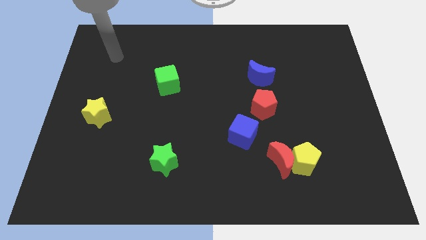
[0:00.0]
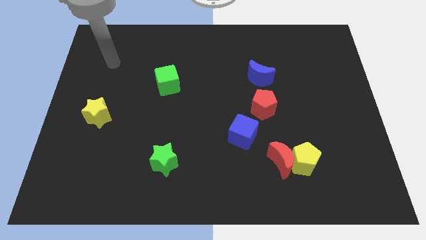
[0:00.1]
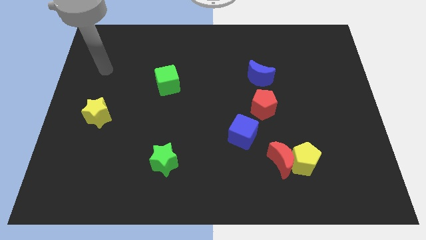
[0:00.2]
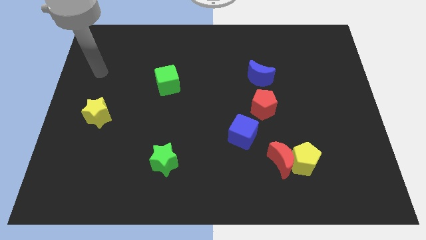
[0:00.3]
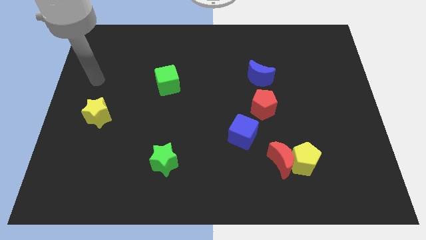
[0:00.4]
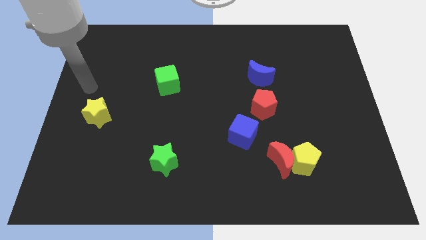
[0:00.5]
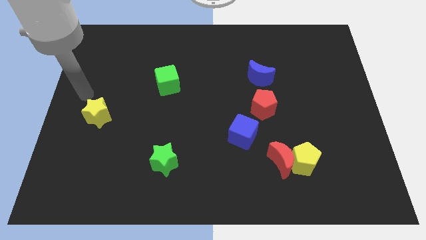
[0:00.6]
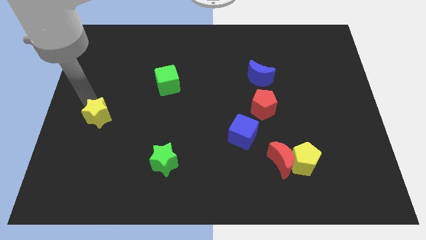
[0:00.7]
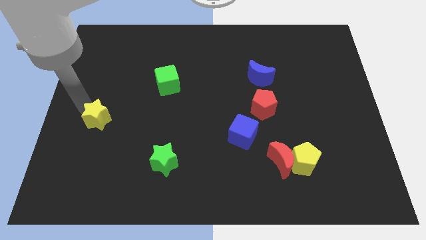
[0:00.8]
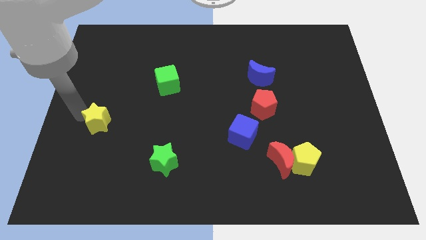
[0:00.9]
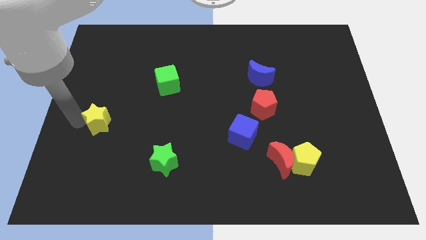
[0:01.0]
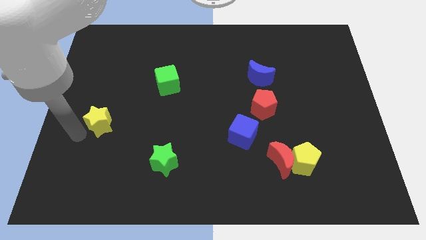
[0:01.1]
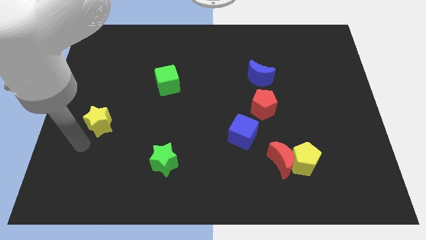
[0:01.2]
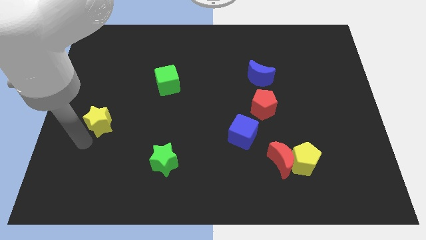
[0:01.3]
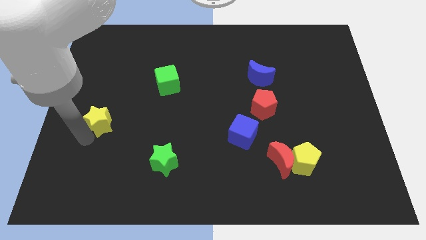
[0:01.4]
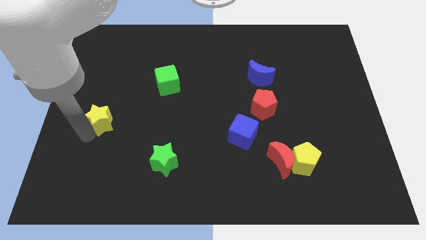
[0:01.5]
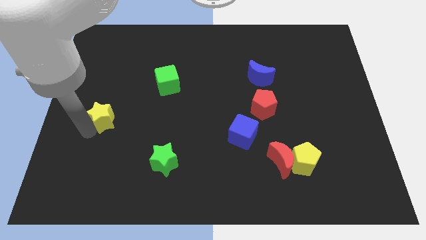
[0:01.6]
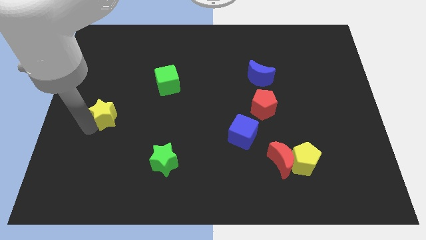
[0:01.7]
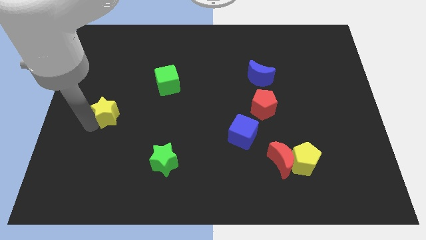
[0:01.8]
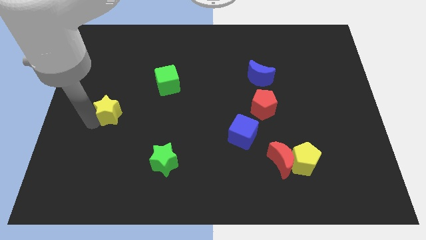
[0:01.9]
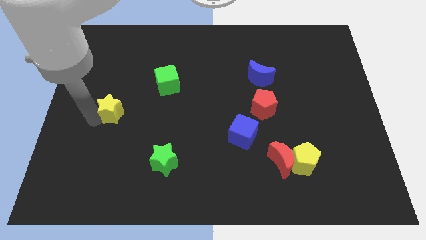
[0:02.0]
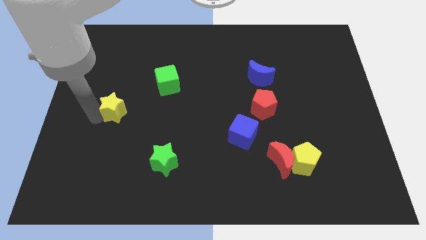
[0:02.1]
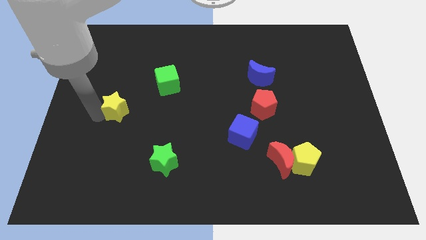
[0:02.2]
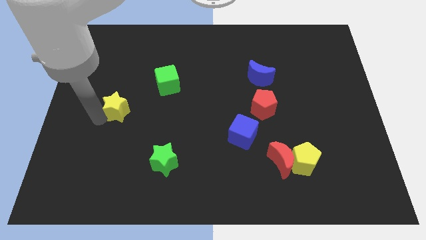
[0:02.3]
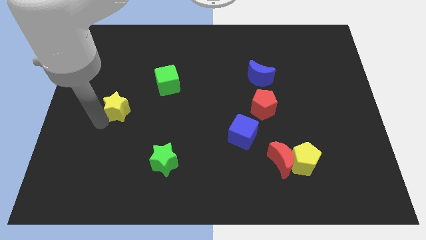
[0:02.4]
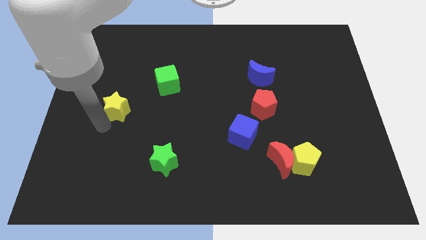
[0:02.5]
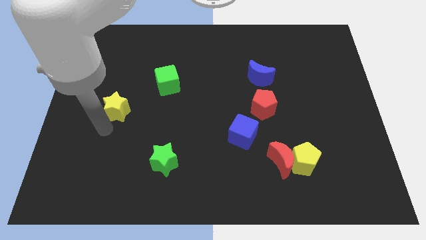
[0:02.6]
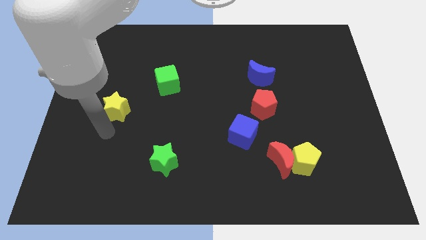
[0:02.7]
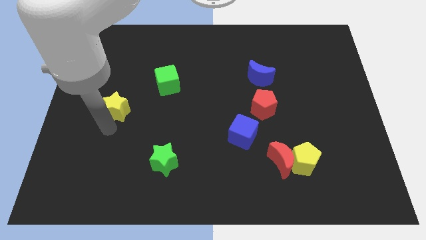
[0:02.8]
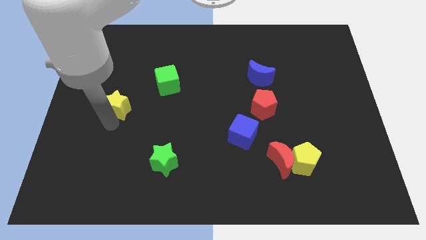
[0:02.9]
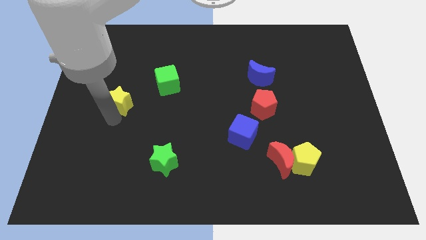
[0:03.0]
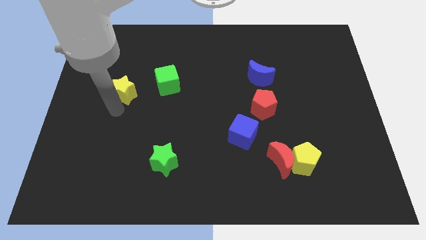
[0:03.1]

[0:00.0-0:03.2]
push the yellow star diagonally up and to the right somewhat

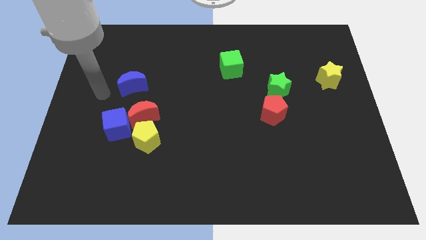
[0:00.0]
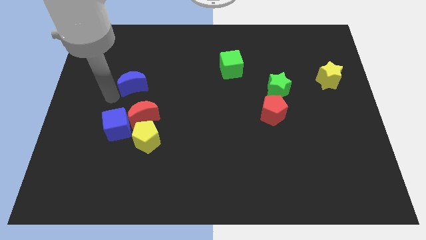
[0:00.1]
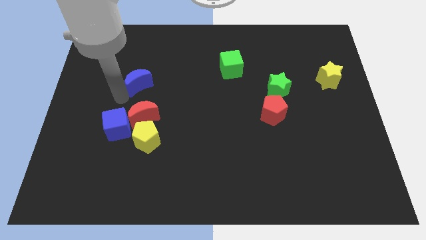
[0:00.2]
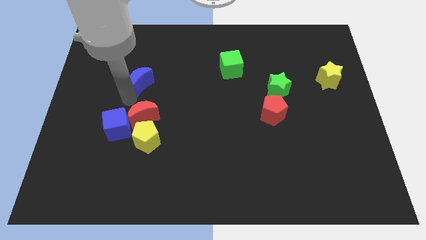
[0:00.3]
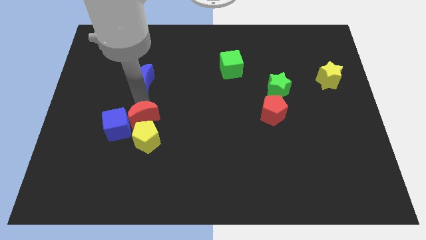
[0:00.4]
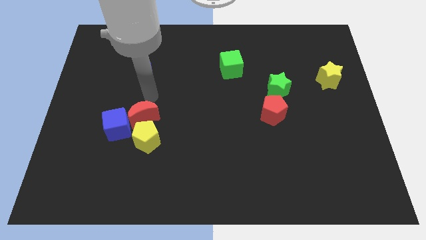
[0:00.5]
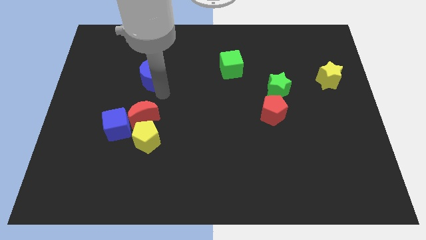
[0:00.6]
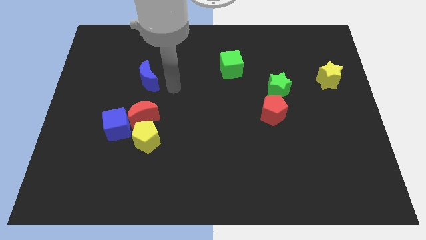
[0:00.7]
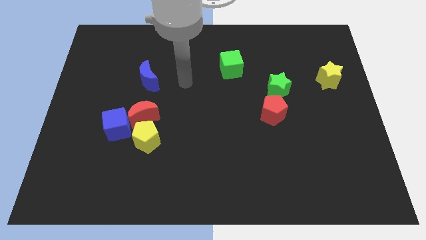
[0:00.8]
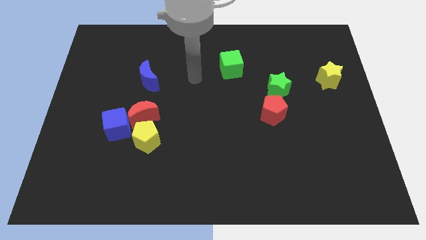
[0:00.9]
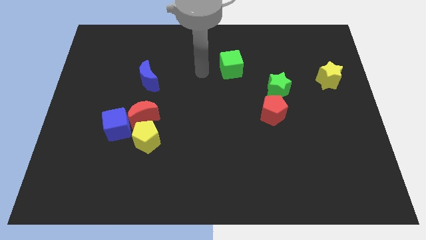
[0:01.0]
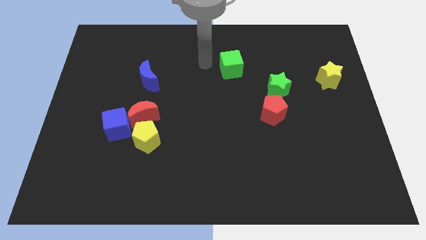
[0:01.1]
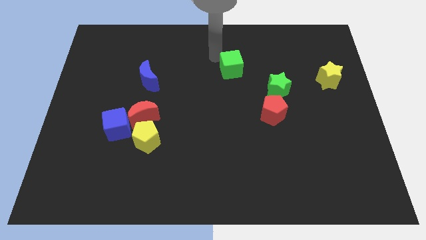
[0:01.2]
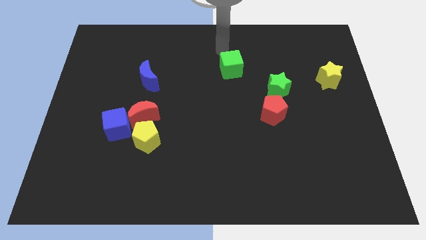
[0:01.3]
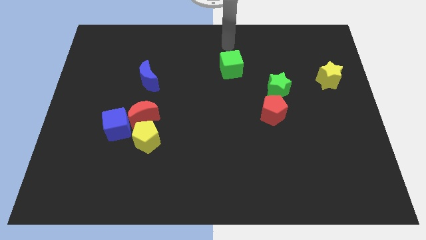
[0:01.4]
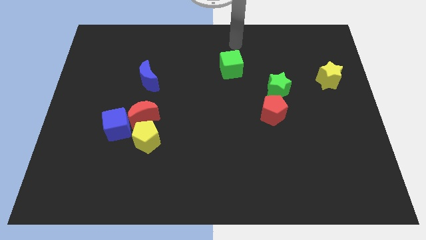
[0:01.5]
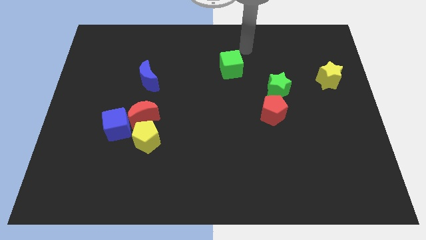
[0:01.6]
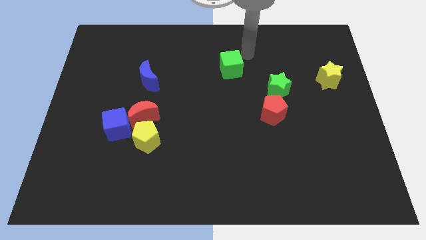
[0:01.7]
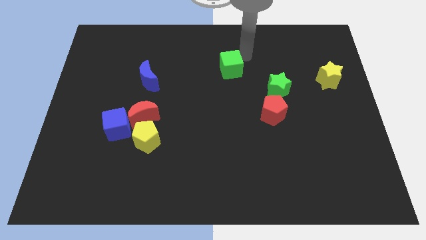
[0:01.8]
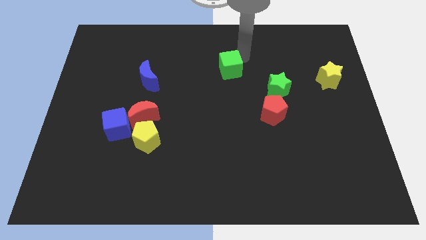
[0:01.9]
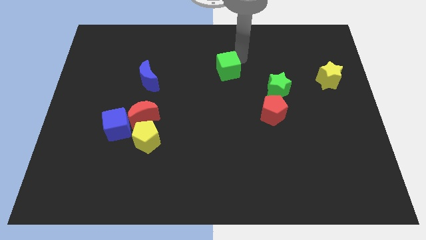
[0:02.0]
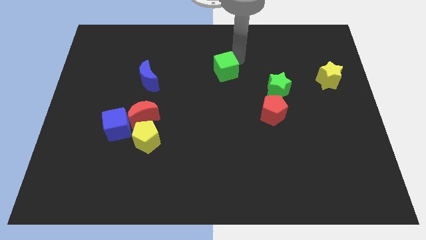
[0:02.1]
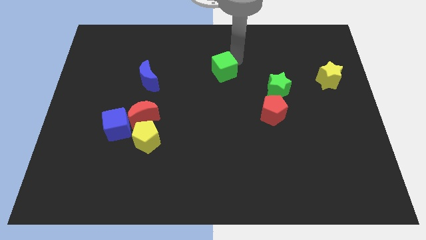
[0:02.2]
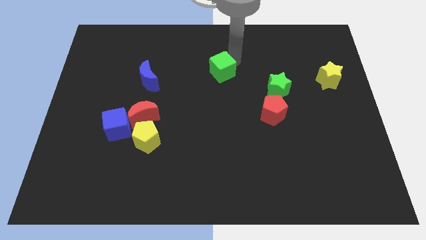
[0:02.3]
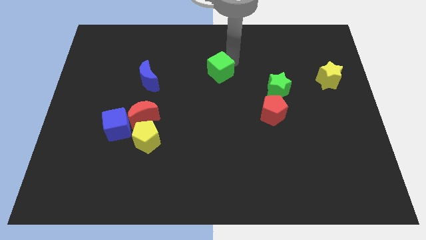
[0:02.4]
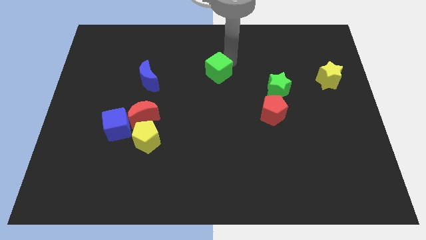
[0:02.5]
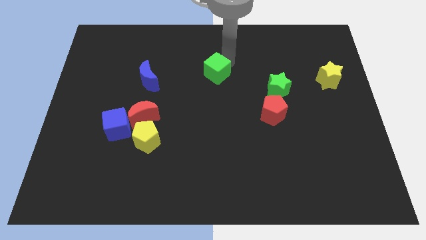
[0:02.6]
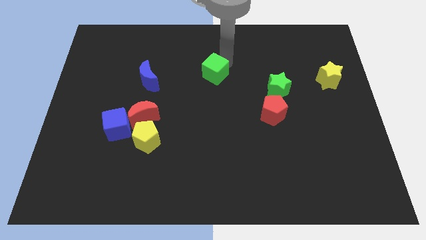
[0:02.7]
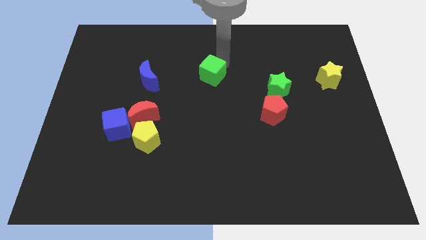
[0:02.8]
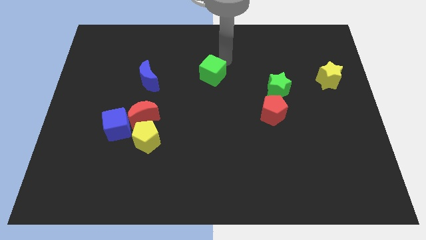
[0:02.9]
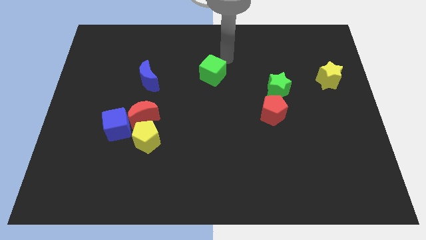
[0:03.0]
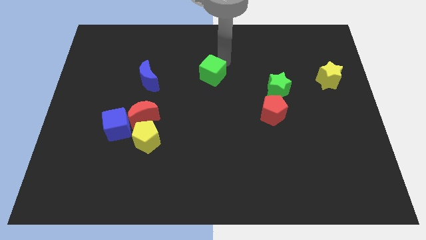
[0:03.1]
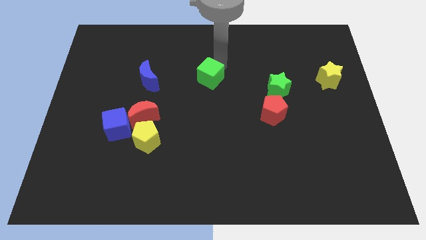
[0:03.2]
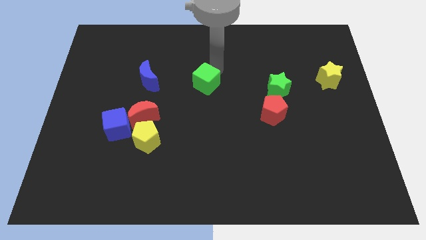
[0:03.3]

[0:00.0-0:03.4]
slightly move the green cube down and then to the left

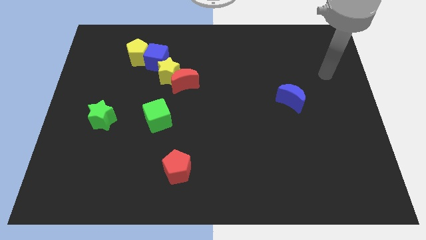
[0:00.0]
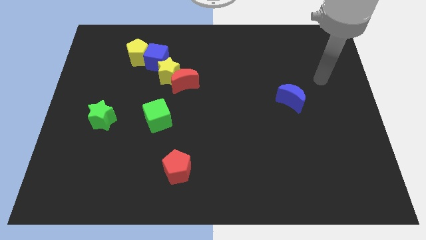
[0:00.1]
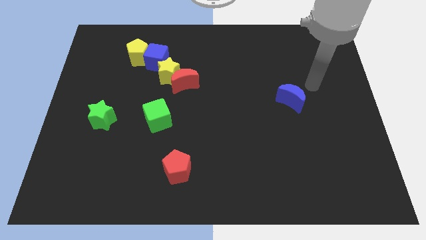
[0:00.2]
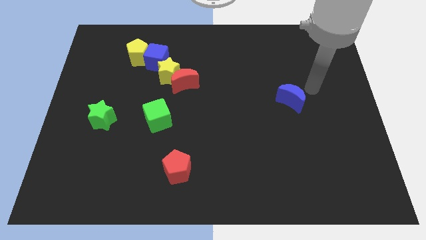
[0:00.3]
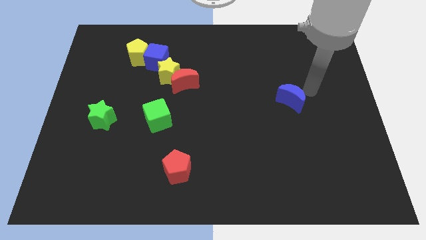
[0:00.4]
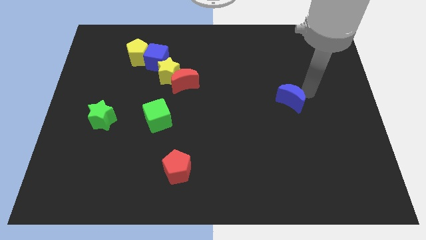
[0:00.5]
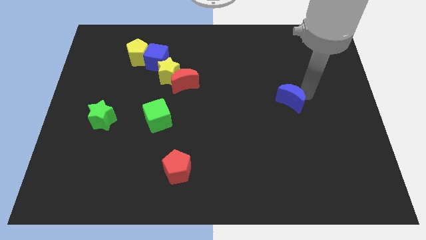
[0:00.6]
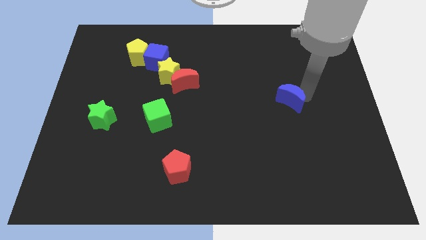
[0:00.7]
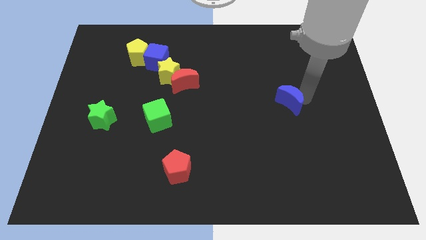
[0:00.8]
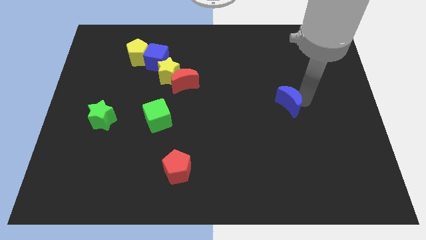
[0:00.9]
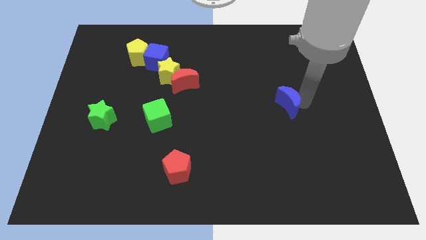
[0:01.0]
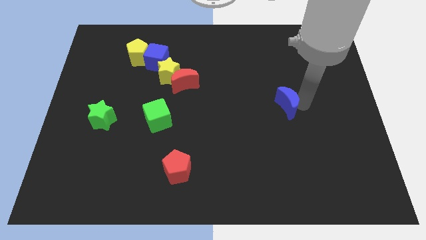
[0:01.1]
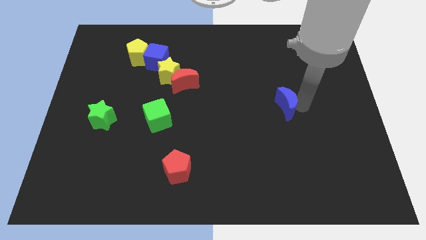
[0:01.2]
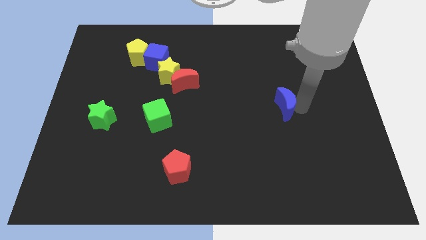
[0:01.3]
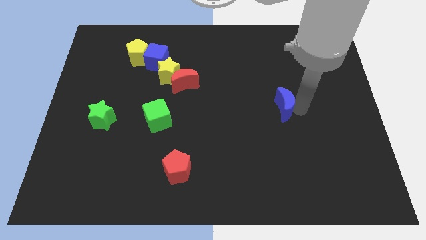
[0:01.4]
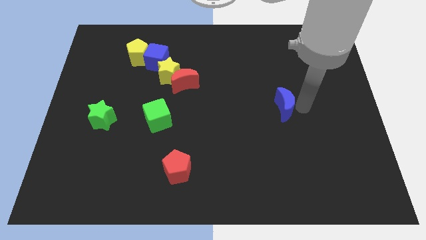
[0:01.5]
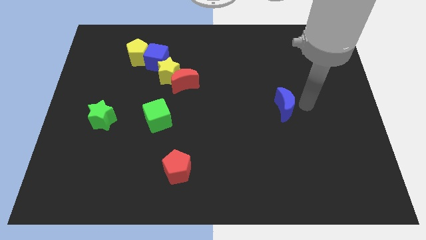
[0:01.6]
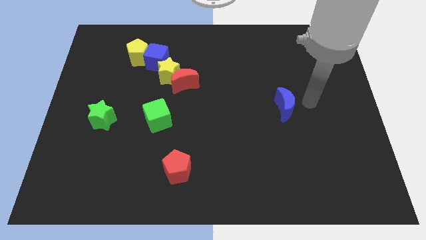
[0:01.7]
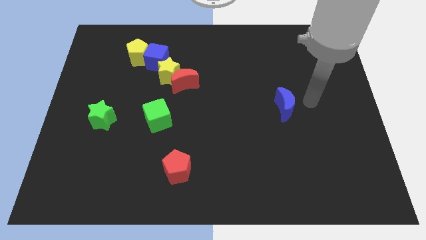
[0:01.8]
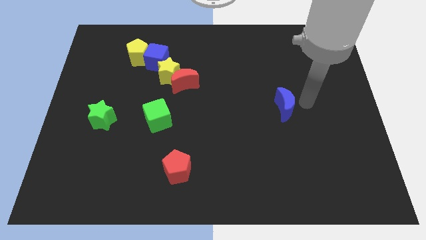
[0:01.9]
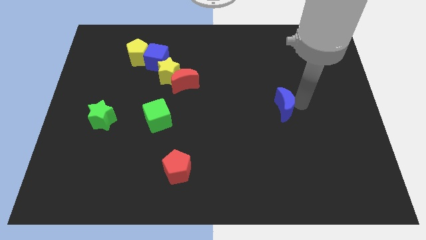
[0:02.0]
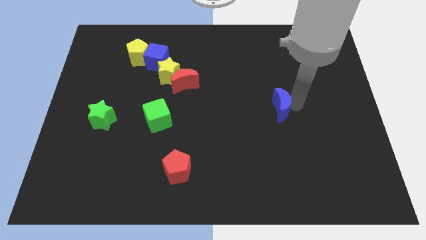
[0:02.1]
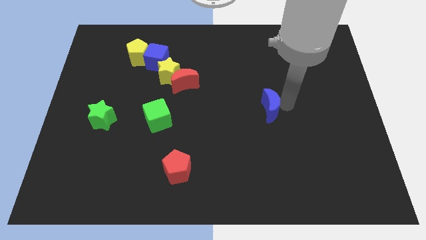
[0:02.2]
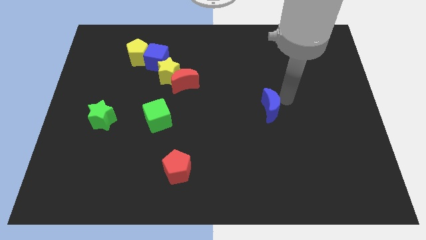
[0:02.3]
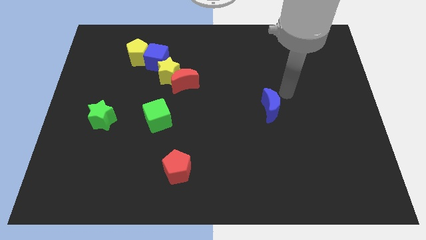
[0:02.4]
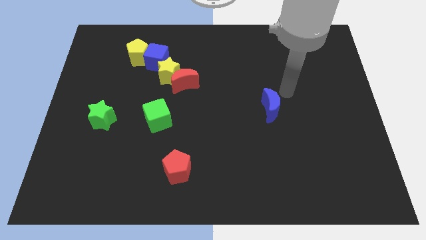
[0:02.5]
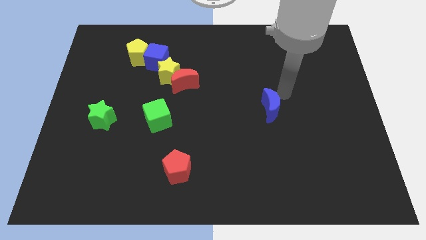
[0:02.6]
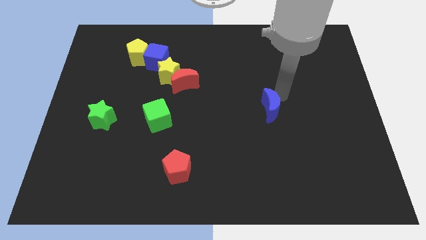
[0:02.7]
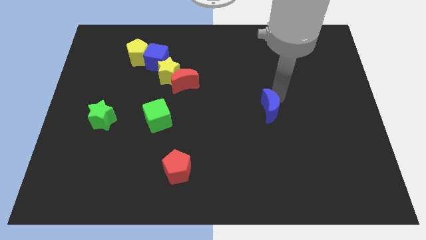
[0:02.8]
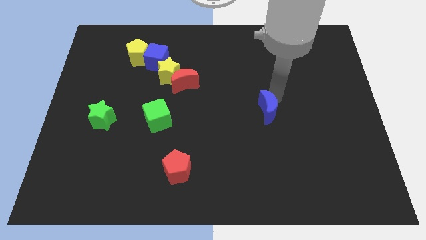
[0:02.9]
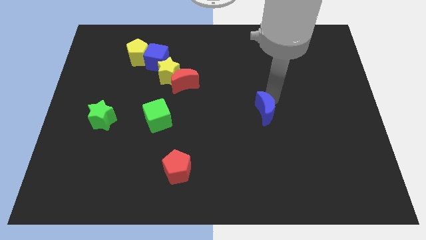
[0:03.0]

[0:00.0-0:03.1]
slightly push the blue moon downwards and then left
